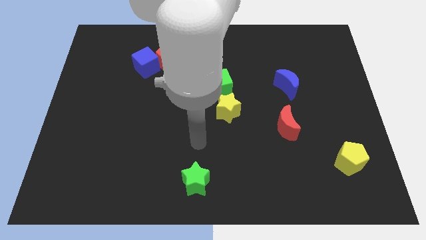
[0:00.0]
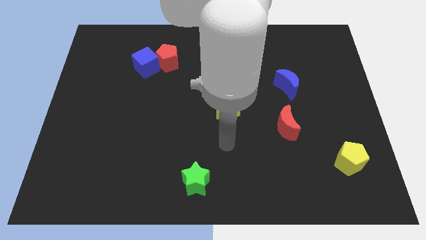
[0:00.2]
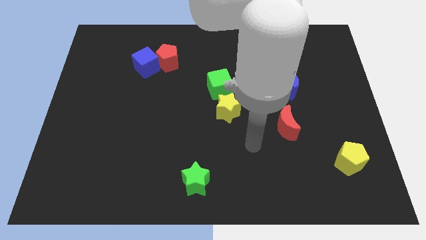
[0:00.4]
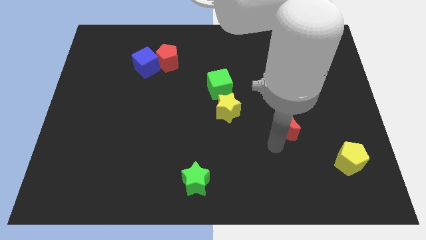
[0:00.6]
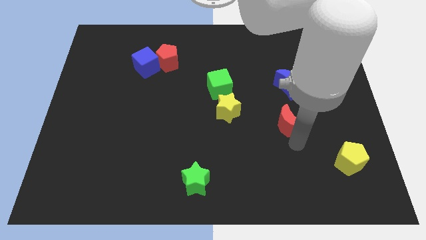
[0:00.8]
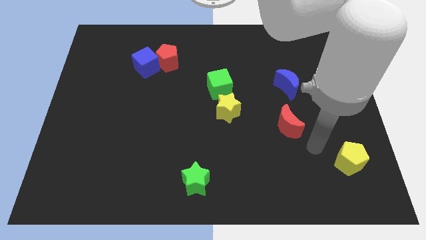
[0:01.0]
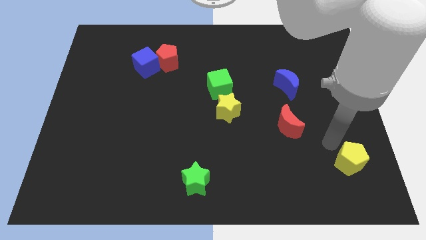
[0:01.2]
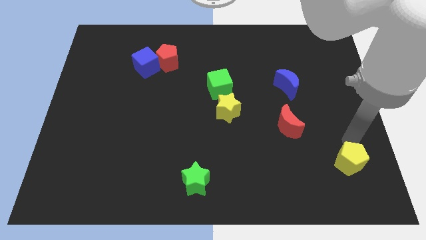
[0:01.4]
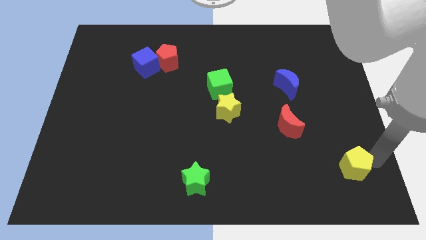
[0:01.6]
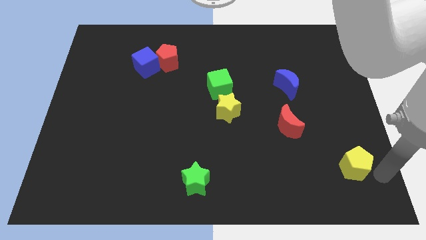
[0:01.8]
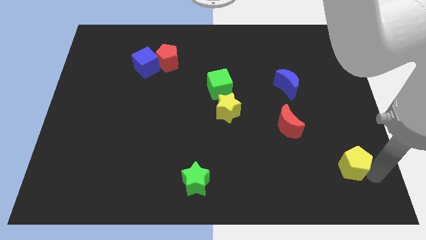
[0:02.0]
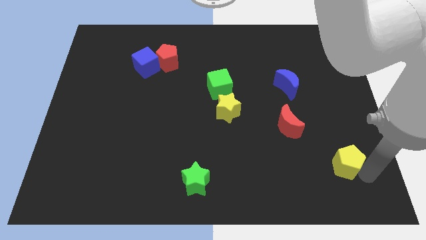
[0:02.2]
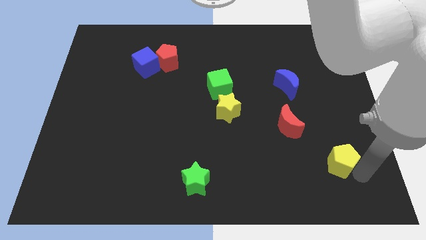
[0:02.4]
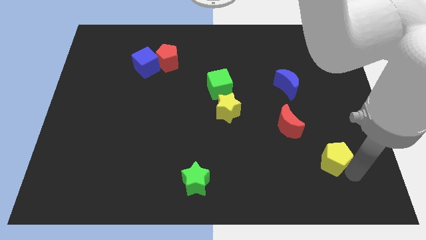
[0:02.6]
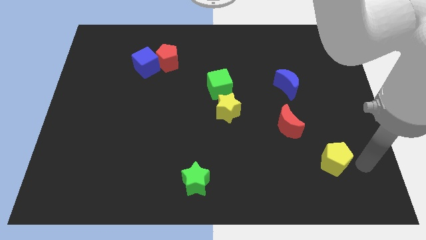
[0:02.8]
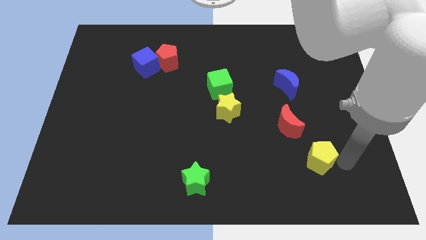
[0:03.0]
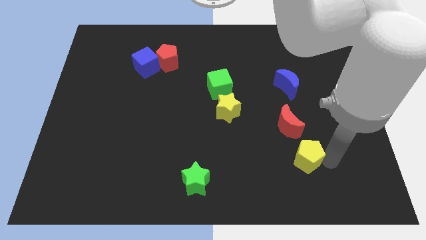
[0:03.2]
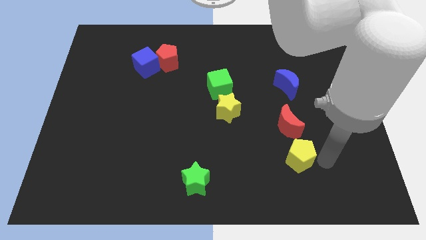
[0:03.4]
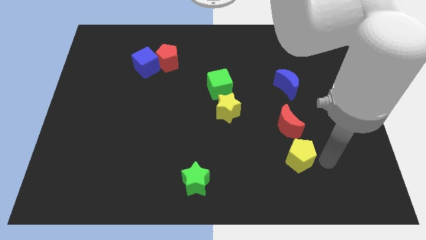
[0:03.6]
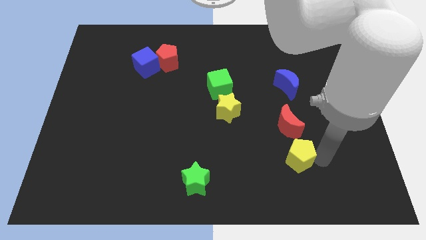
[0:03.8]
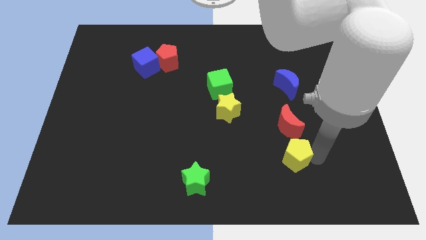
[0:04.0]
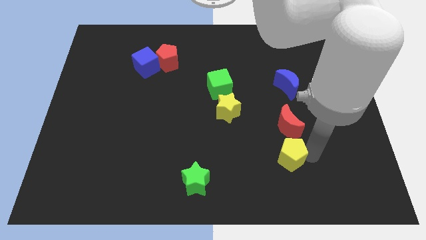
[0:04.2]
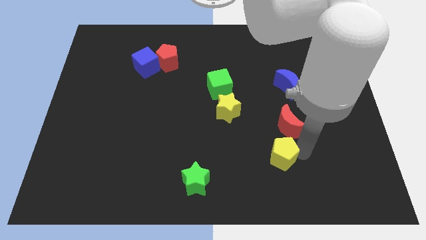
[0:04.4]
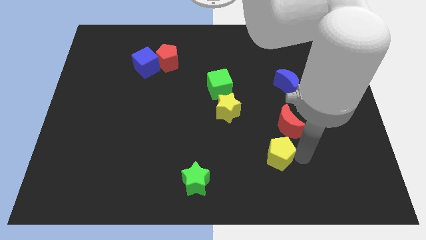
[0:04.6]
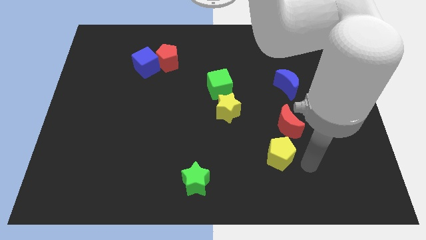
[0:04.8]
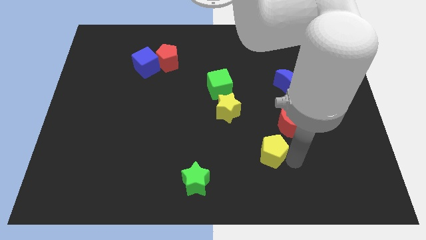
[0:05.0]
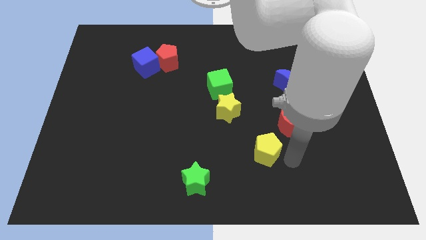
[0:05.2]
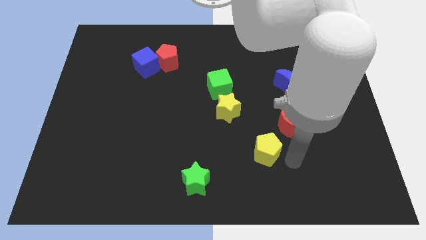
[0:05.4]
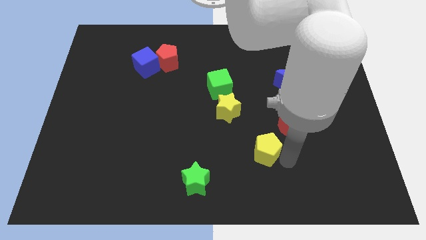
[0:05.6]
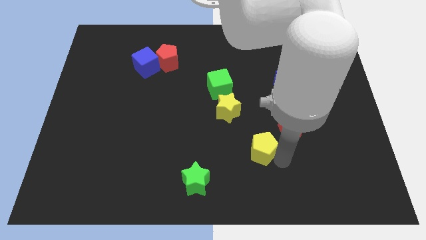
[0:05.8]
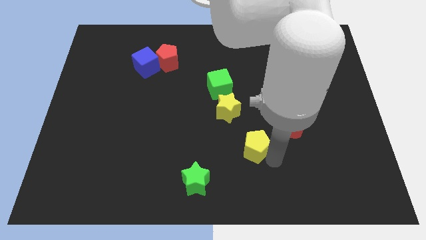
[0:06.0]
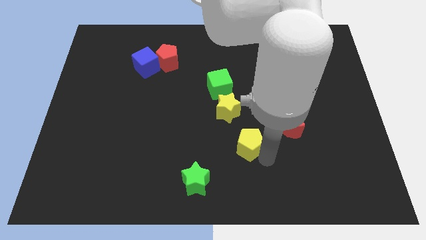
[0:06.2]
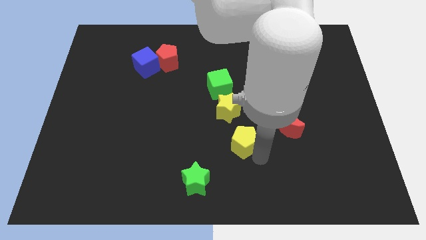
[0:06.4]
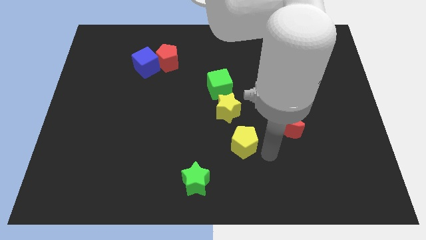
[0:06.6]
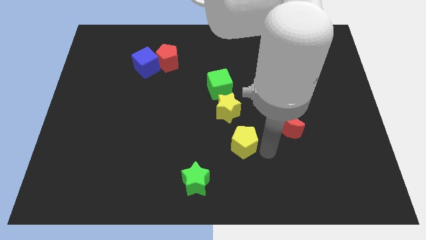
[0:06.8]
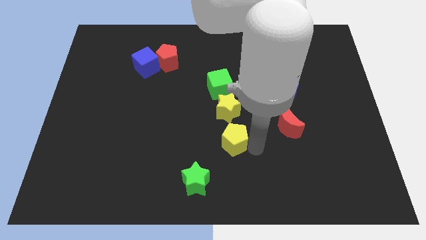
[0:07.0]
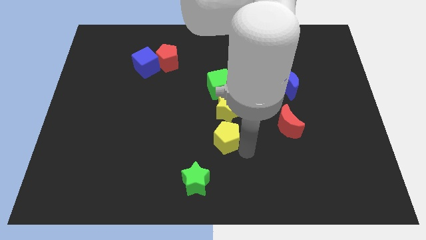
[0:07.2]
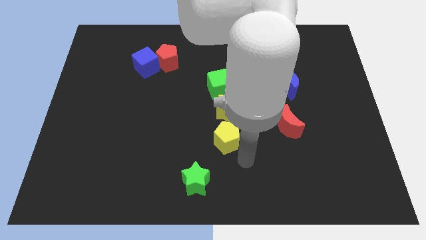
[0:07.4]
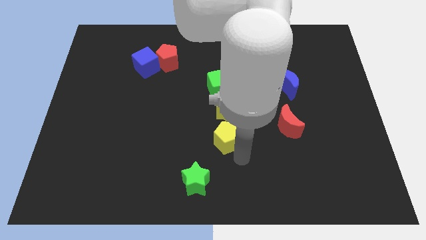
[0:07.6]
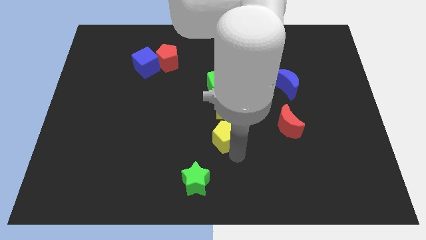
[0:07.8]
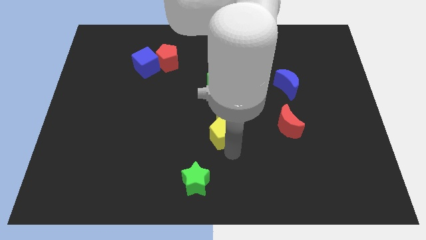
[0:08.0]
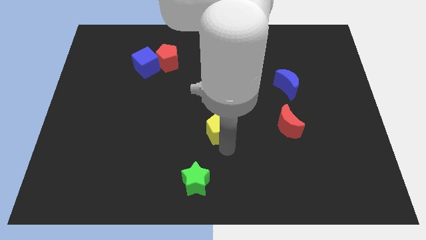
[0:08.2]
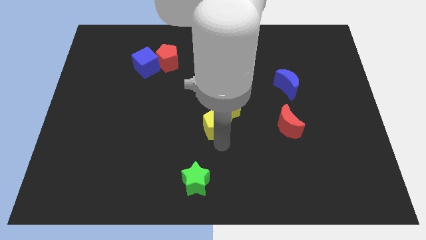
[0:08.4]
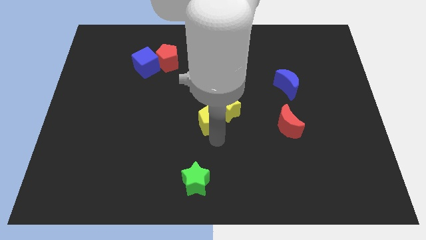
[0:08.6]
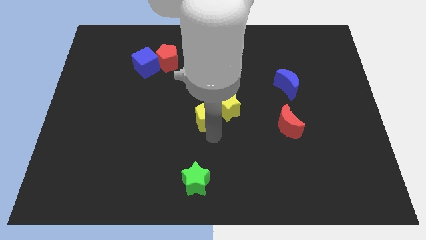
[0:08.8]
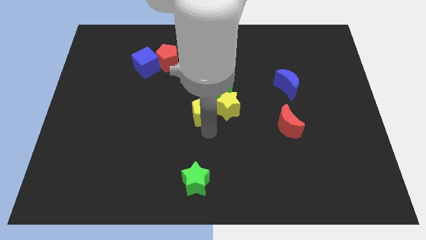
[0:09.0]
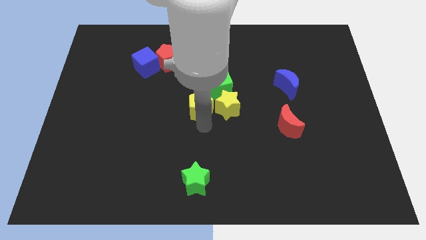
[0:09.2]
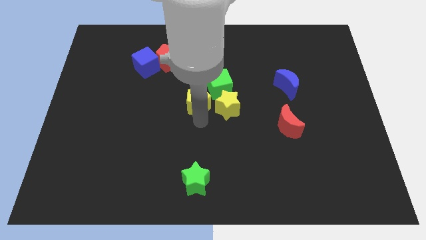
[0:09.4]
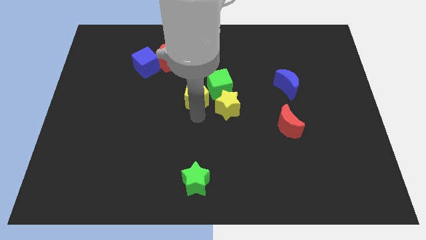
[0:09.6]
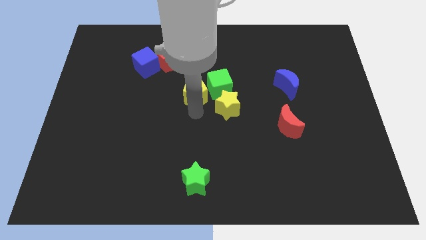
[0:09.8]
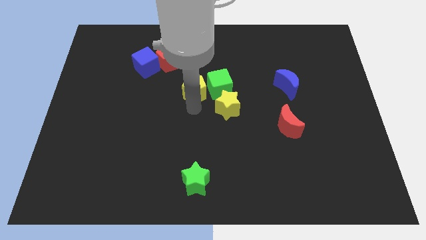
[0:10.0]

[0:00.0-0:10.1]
push the yellow pentagon to the bottom right of the red pentagon

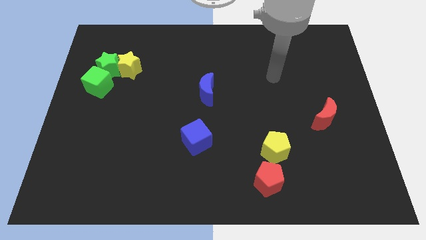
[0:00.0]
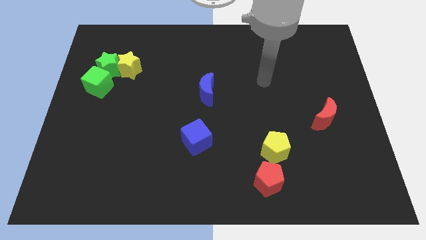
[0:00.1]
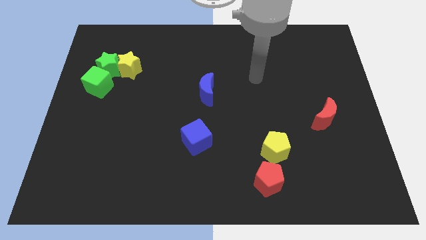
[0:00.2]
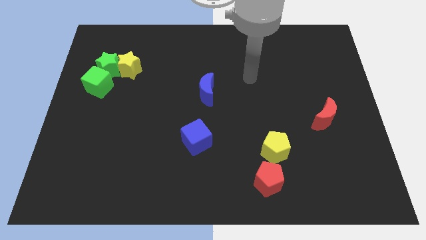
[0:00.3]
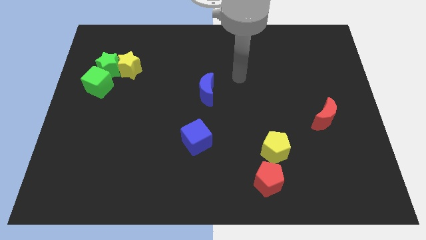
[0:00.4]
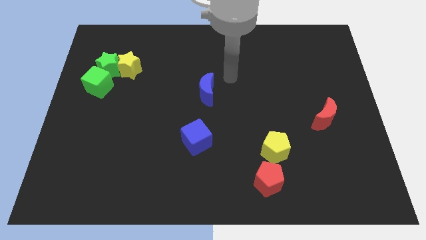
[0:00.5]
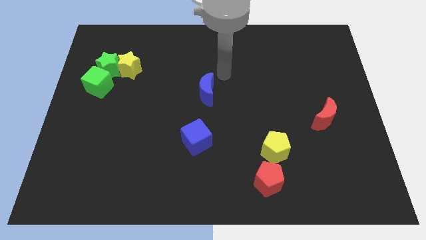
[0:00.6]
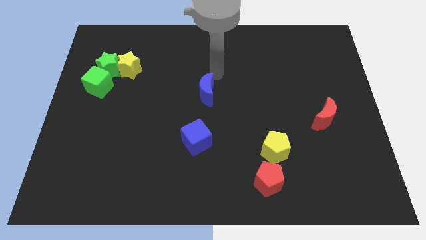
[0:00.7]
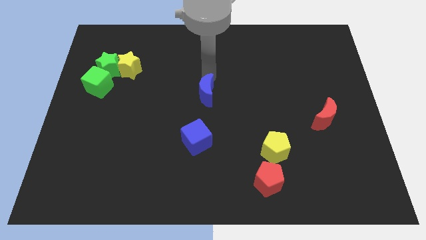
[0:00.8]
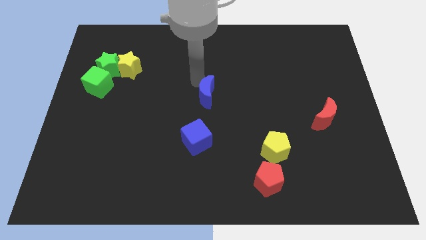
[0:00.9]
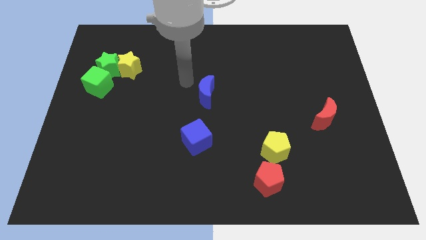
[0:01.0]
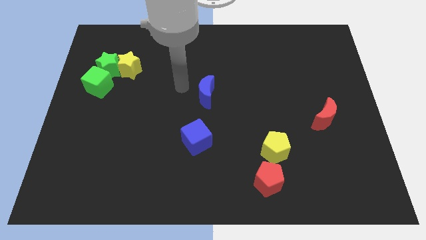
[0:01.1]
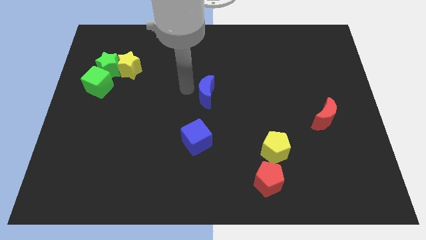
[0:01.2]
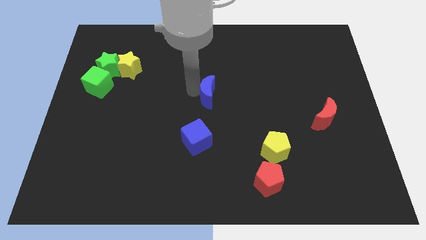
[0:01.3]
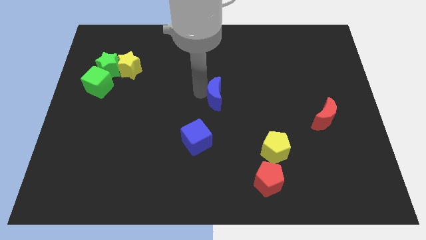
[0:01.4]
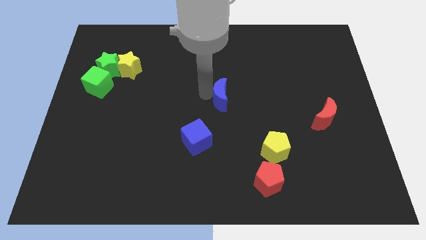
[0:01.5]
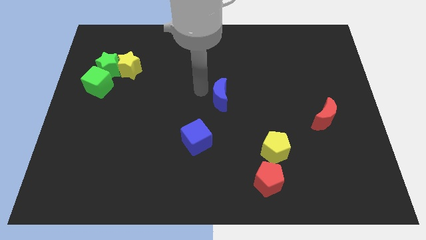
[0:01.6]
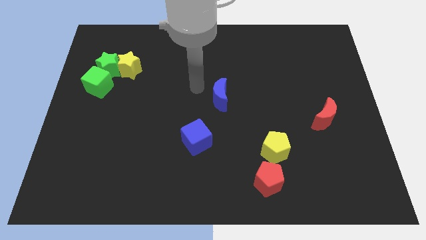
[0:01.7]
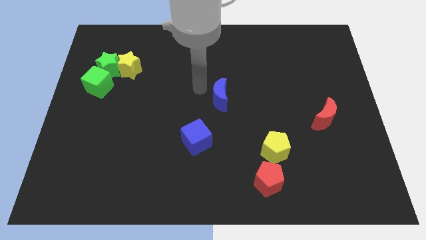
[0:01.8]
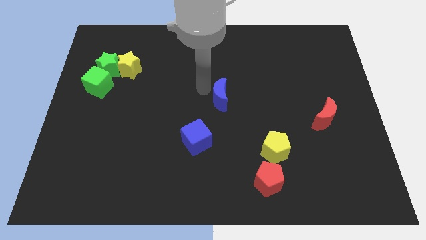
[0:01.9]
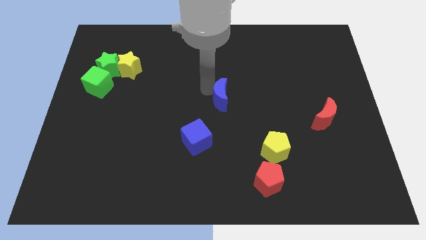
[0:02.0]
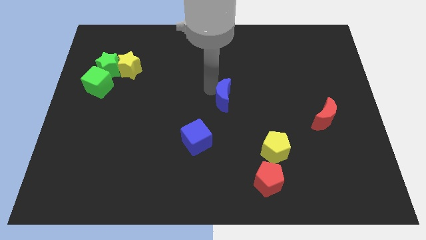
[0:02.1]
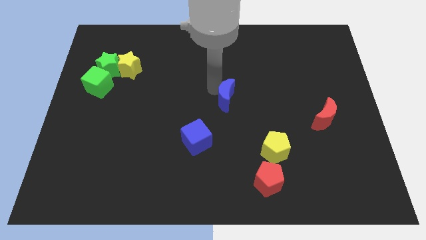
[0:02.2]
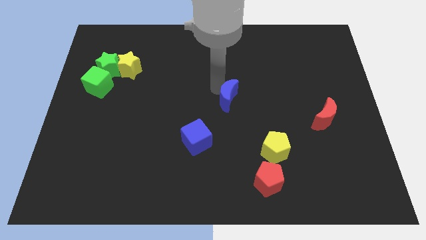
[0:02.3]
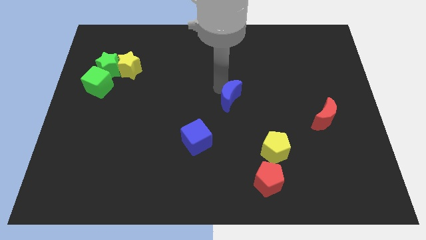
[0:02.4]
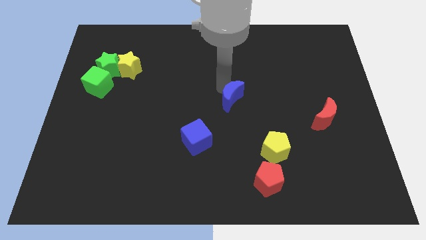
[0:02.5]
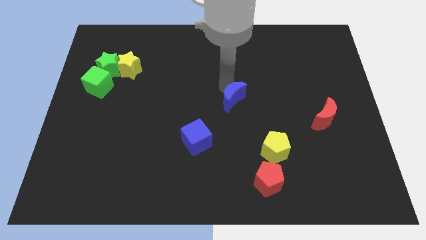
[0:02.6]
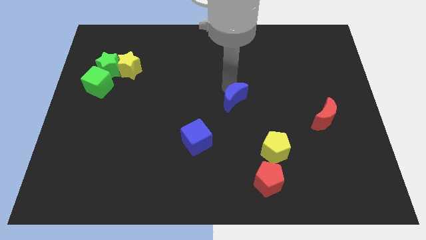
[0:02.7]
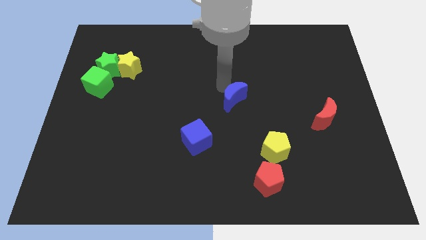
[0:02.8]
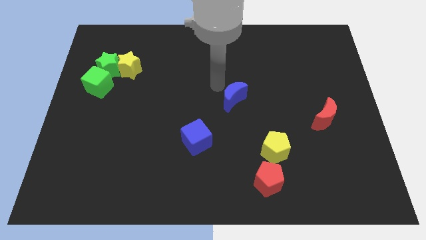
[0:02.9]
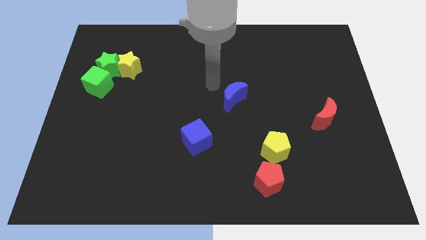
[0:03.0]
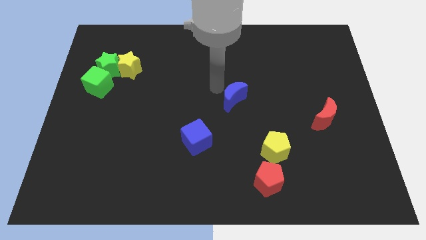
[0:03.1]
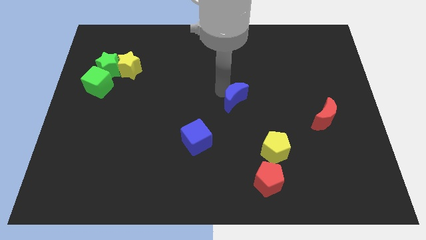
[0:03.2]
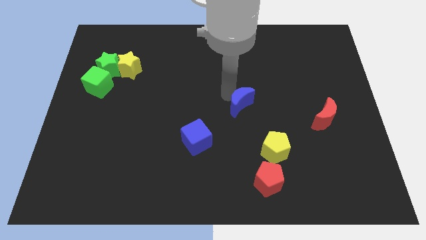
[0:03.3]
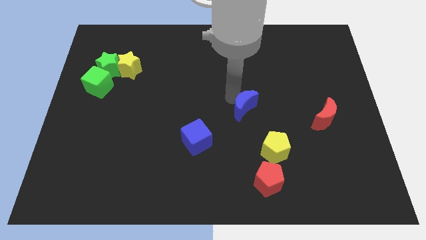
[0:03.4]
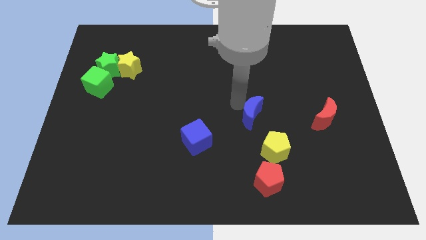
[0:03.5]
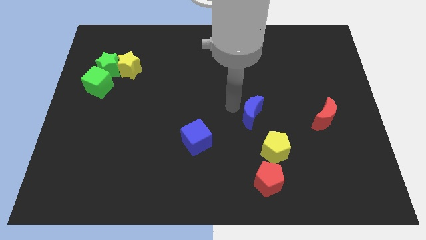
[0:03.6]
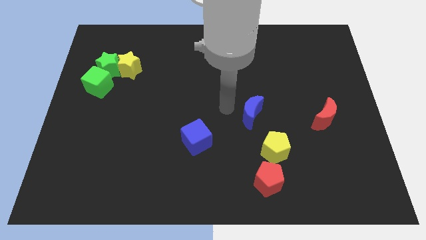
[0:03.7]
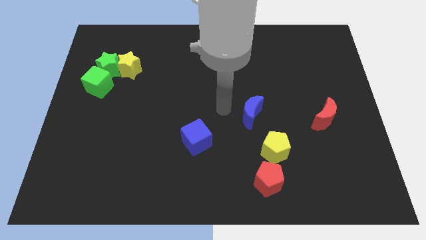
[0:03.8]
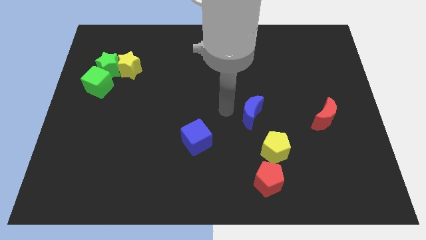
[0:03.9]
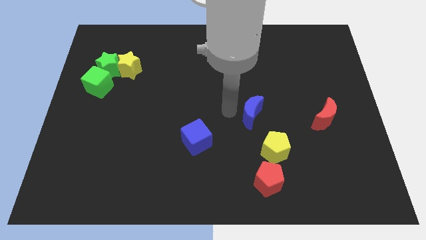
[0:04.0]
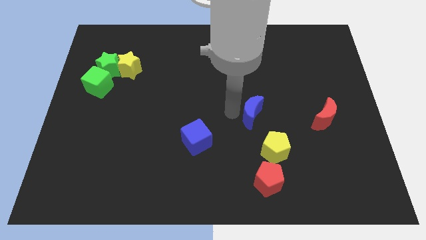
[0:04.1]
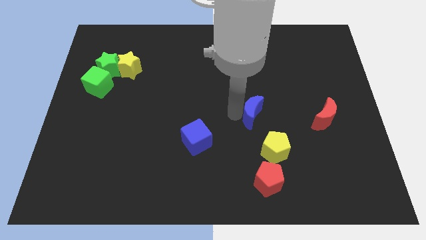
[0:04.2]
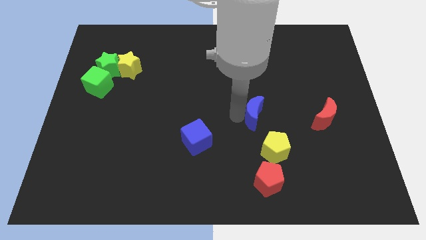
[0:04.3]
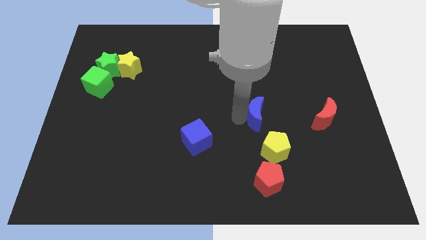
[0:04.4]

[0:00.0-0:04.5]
push the blue moon just left of the red moon
